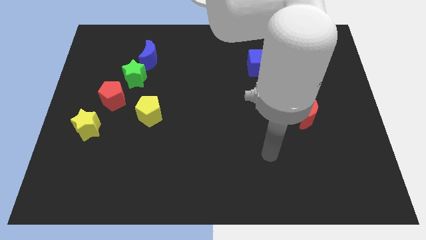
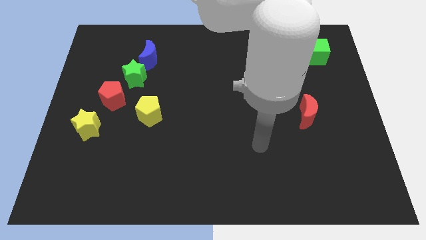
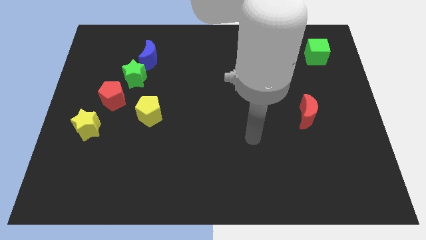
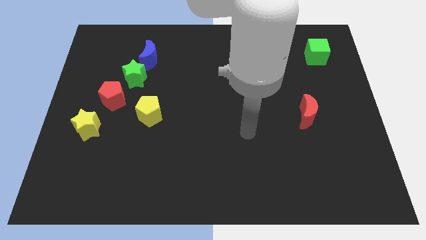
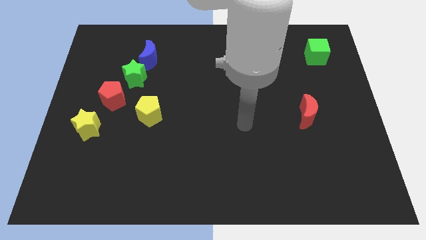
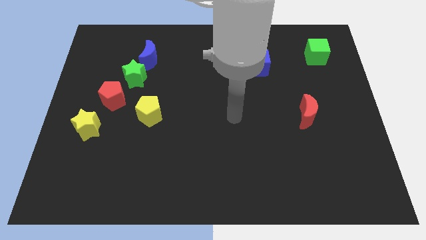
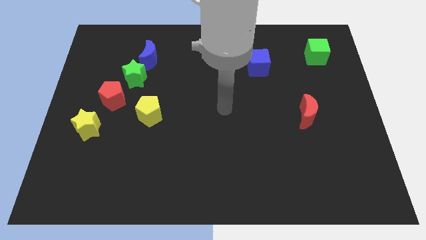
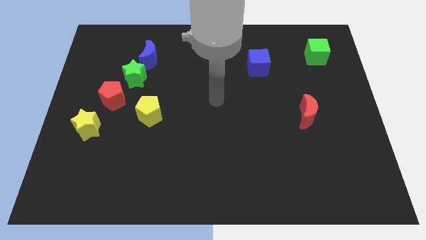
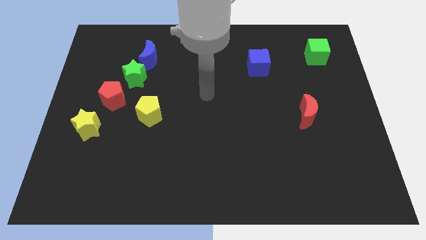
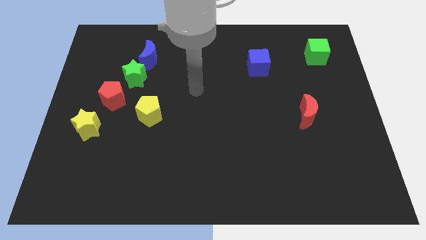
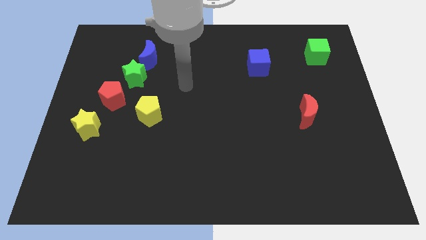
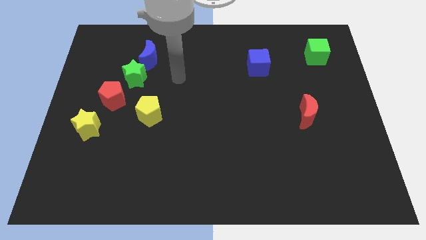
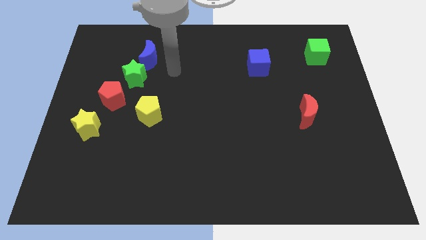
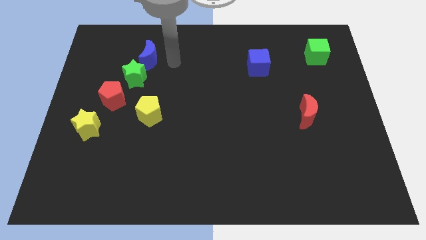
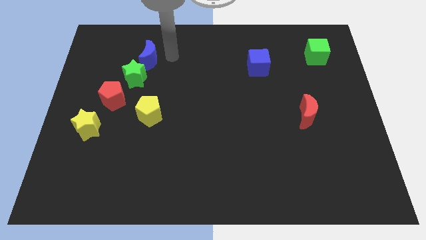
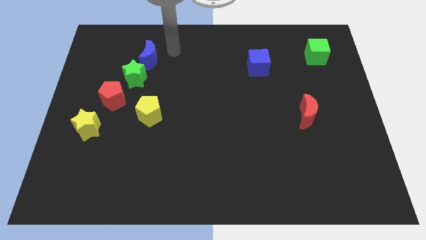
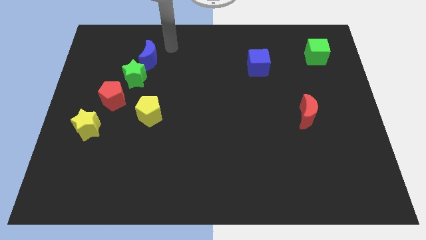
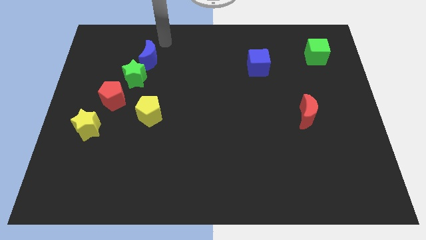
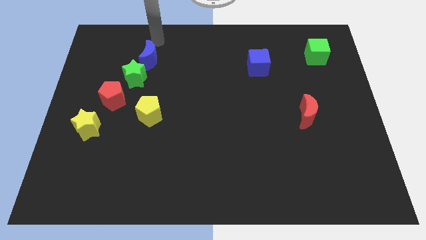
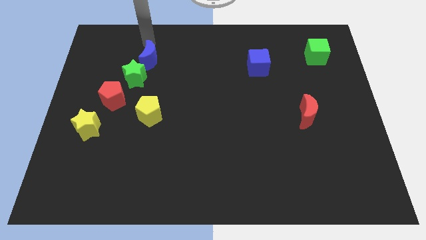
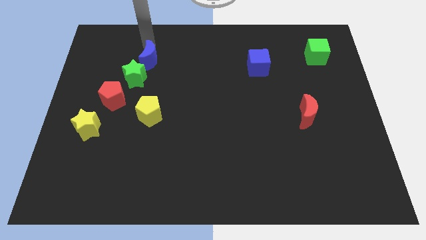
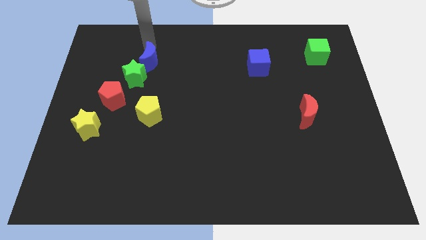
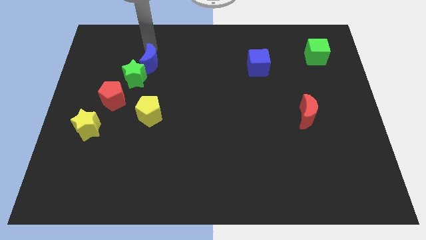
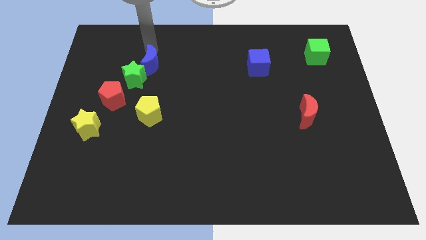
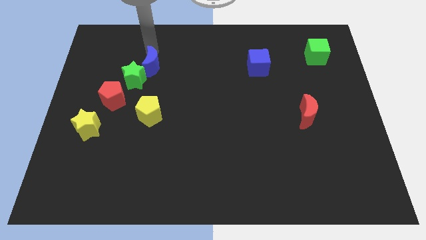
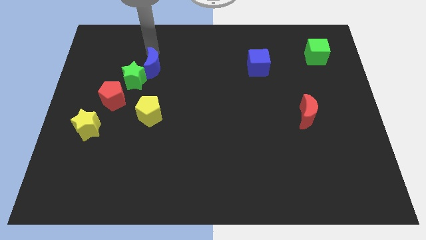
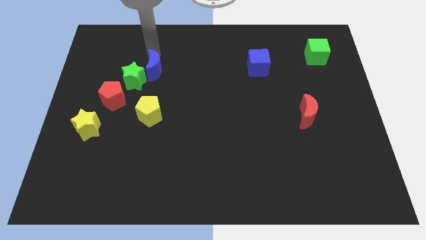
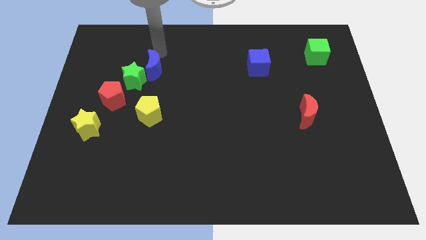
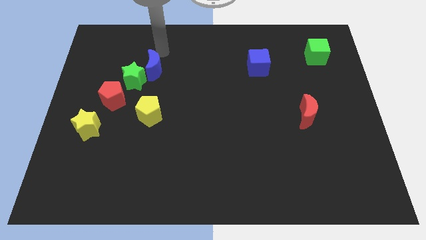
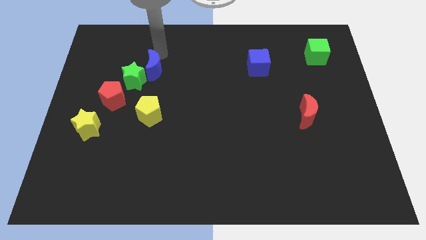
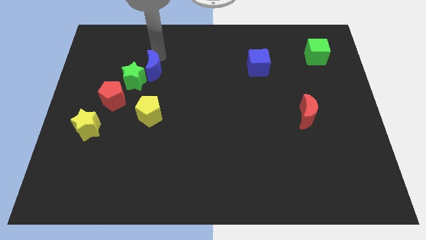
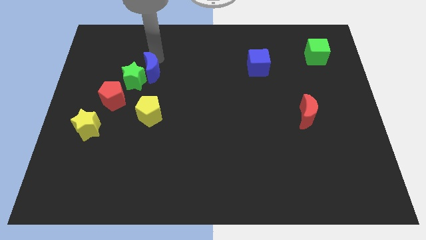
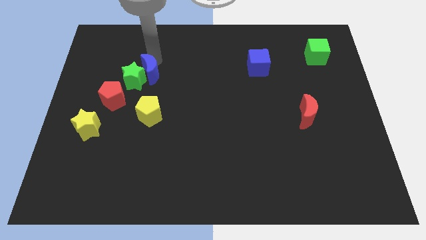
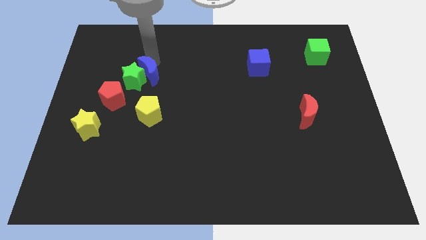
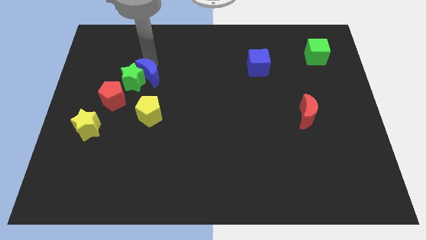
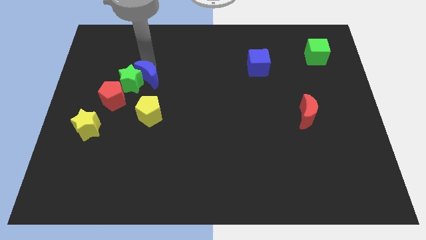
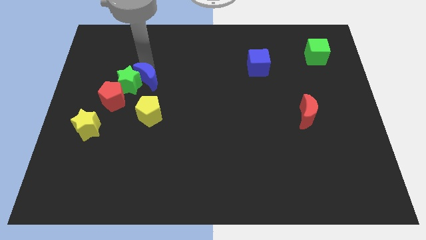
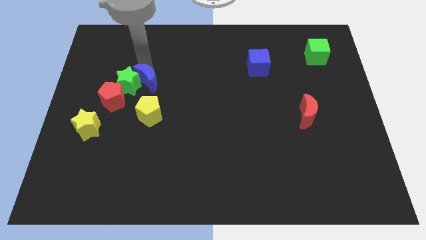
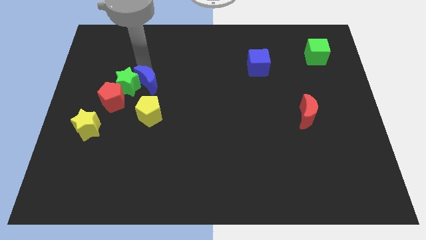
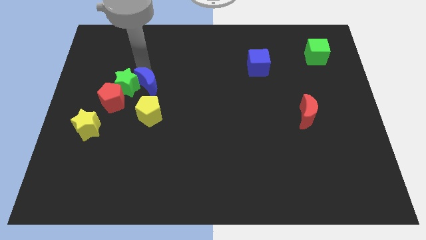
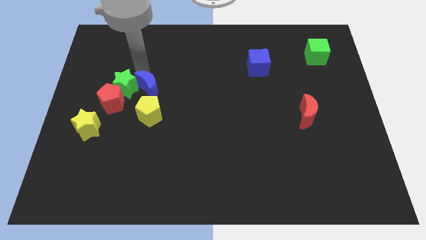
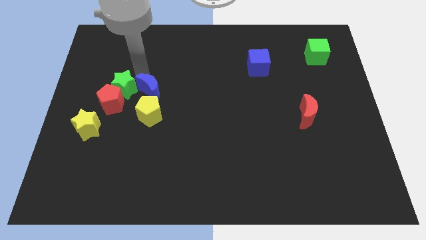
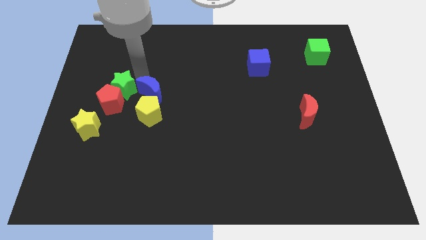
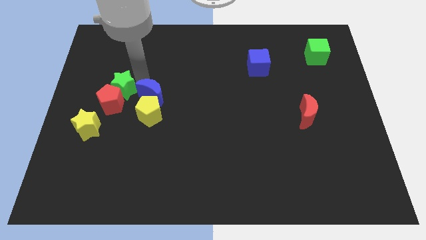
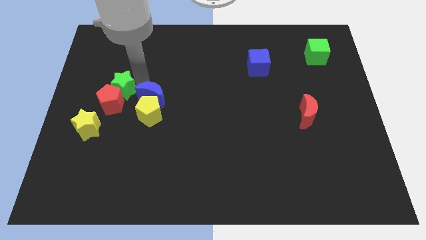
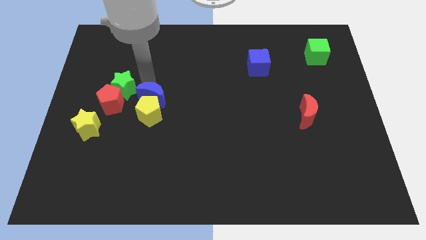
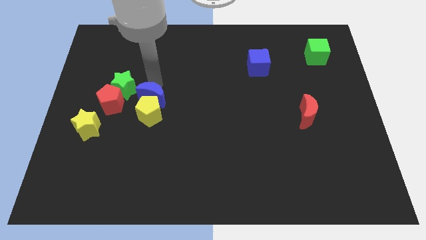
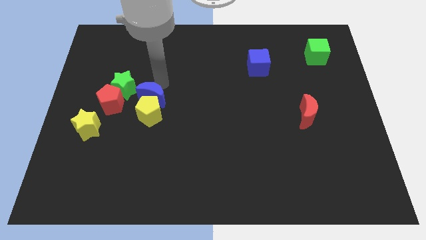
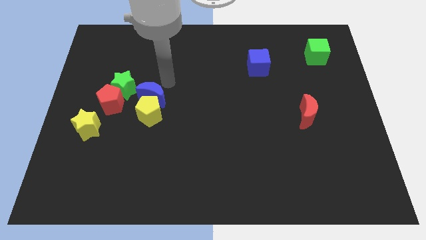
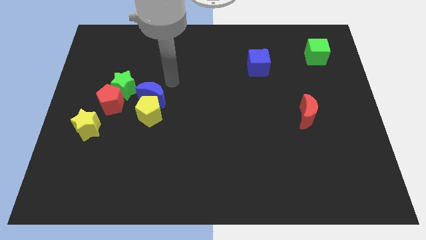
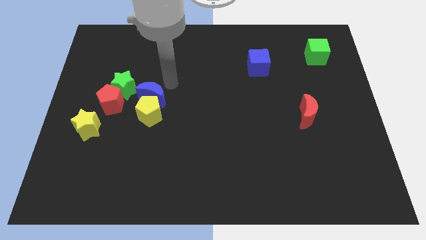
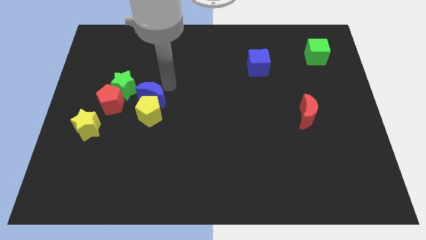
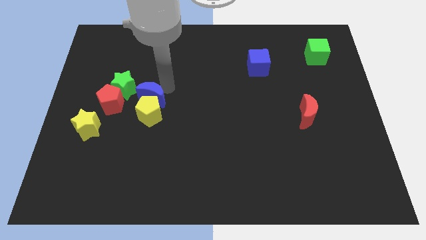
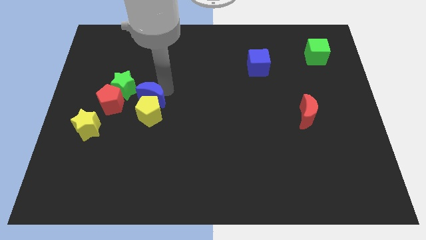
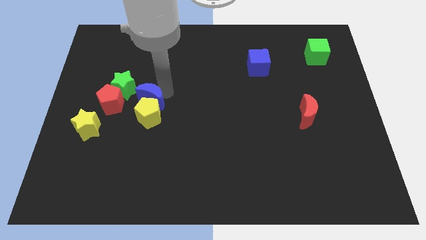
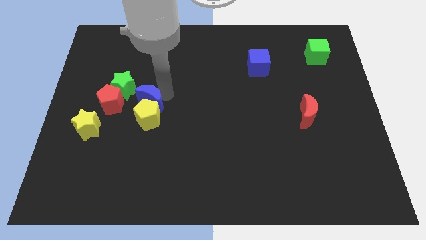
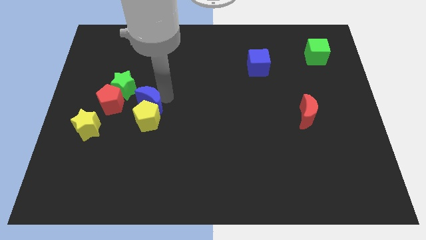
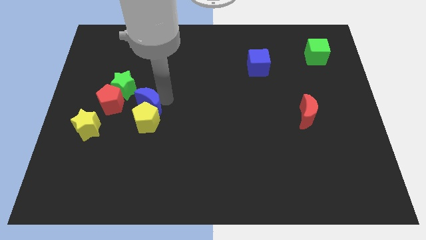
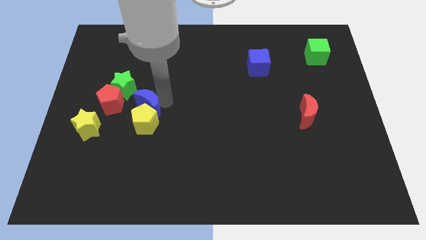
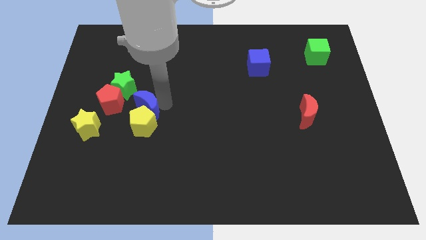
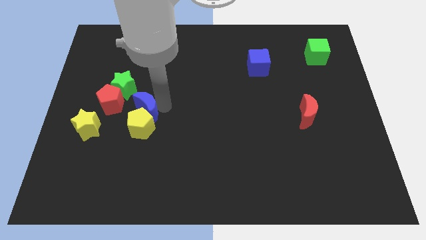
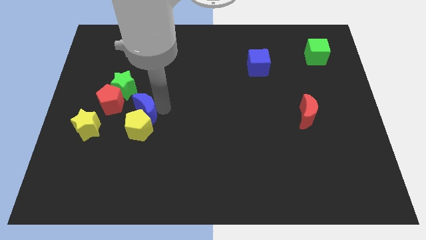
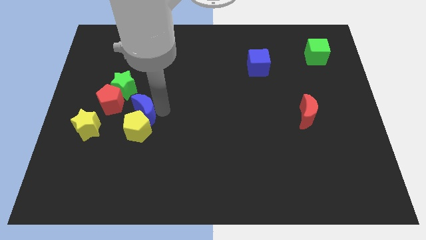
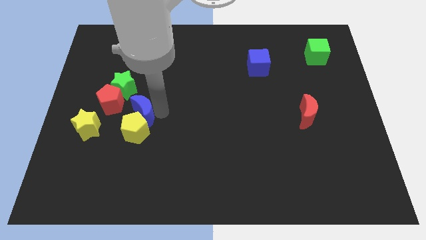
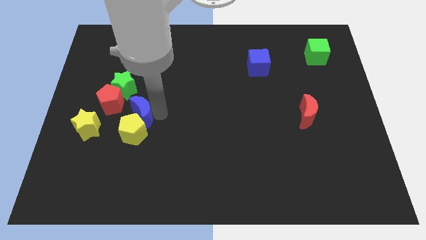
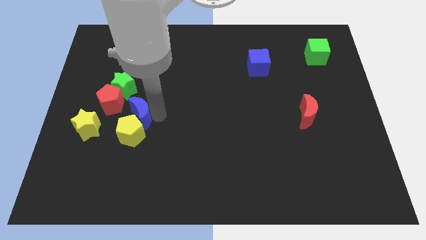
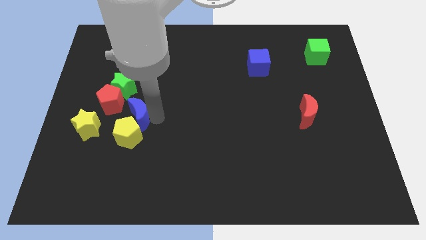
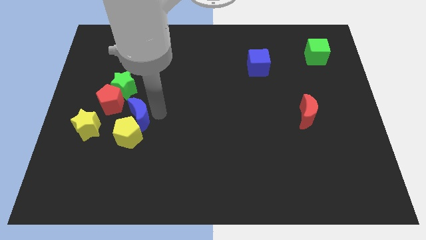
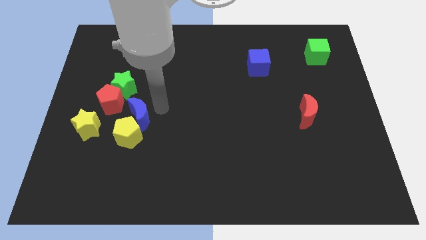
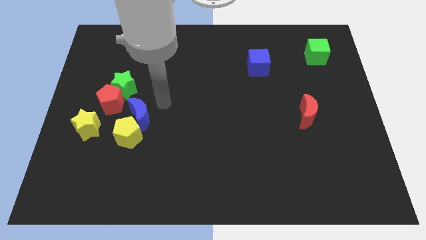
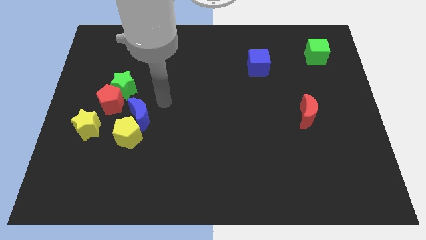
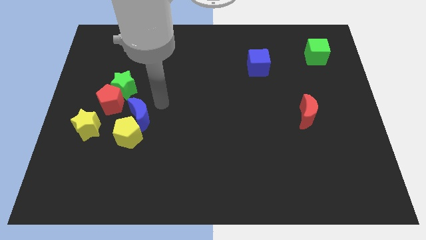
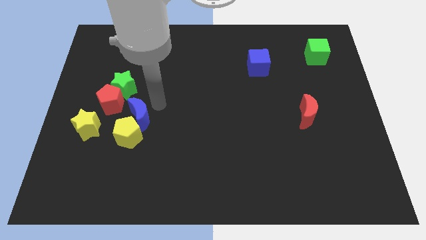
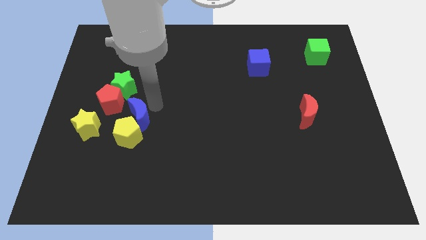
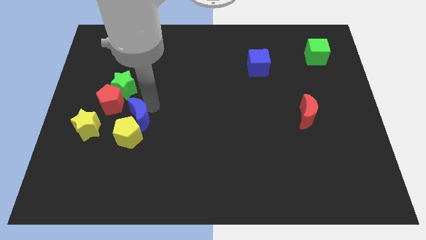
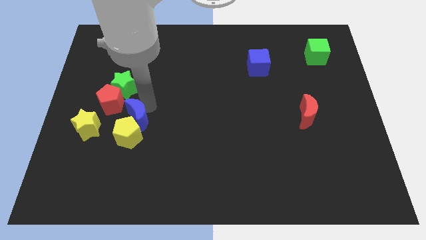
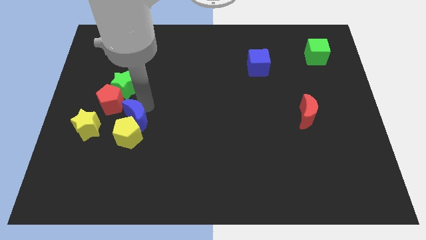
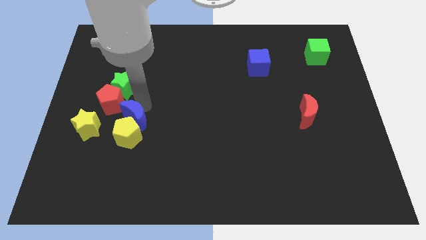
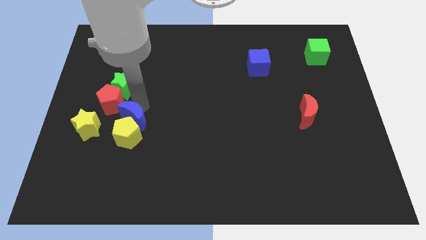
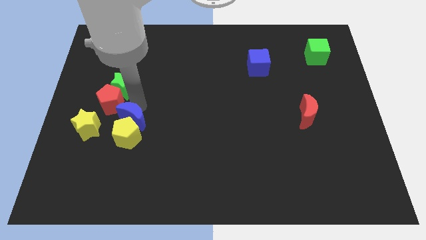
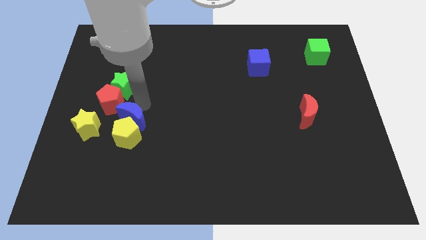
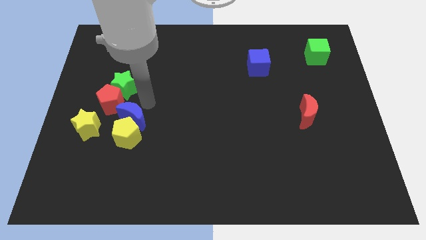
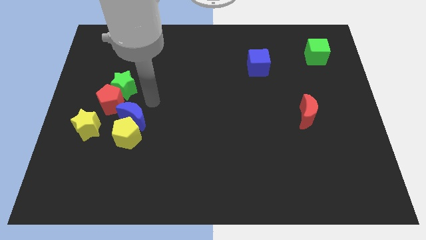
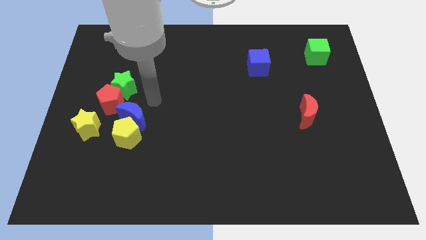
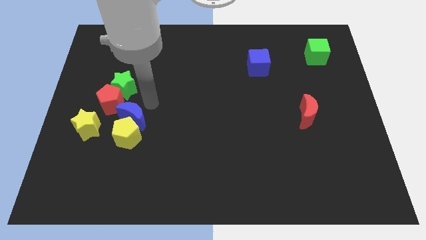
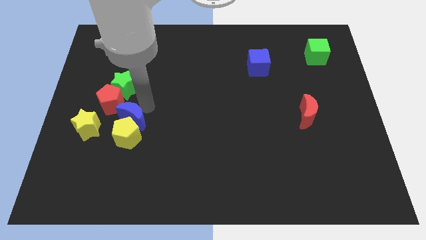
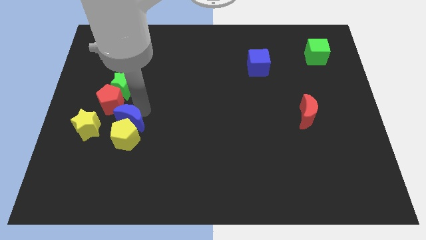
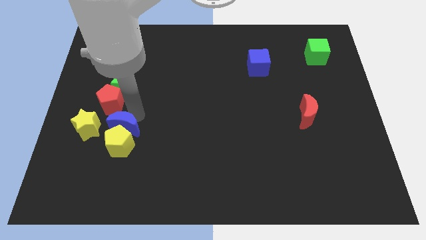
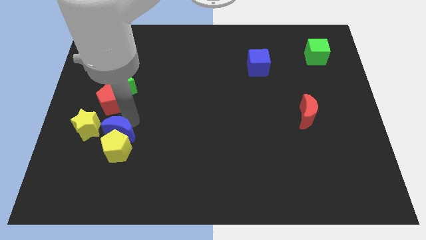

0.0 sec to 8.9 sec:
put the blue moon to the bottom right of the yellow star
